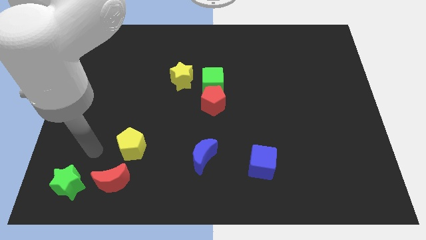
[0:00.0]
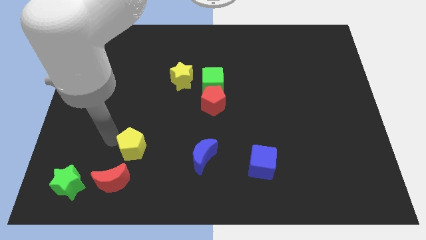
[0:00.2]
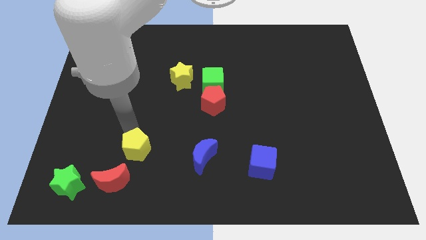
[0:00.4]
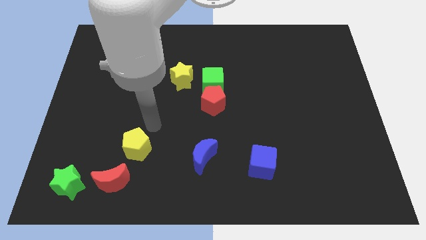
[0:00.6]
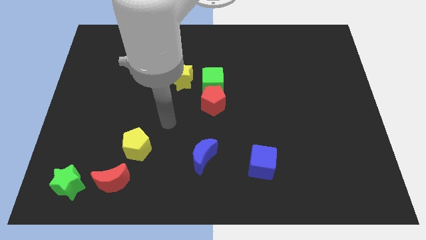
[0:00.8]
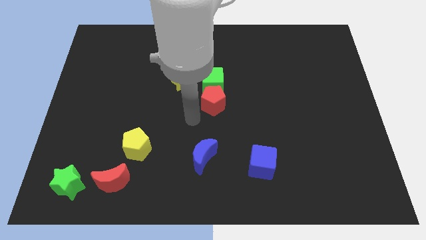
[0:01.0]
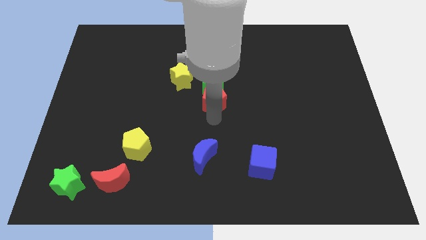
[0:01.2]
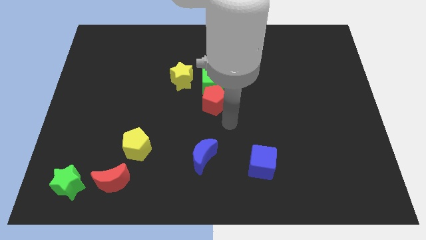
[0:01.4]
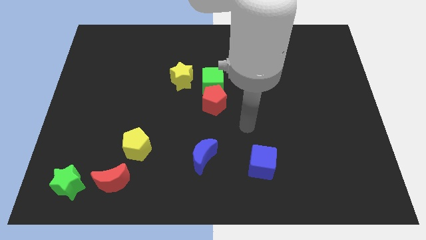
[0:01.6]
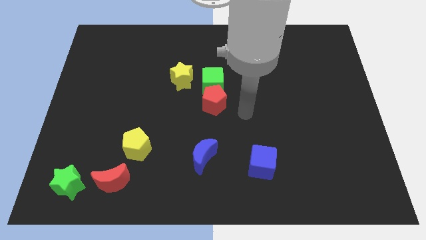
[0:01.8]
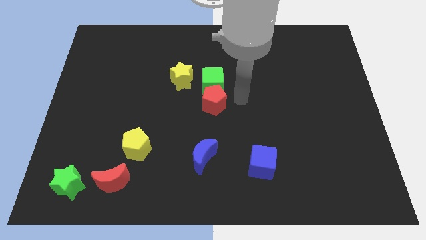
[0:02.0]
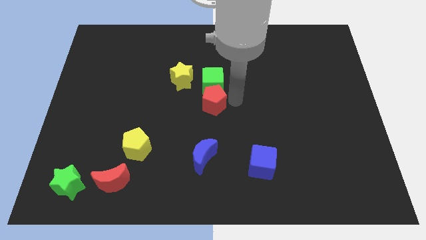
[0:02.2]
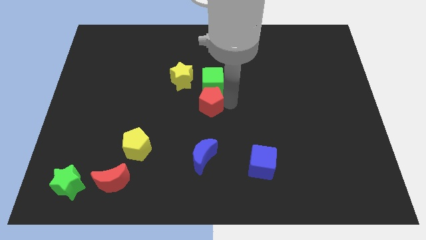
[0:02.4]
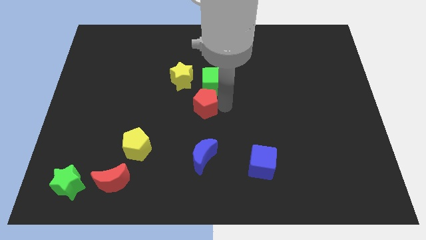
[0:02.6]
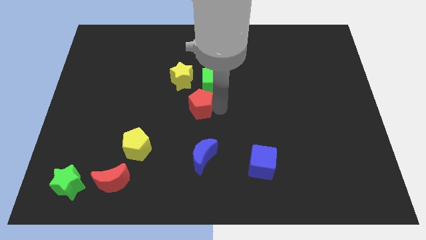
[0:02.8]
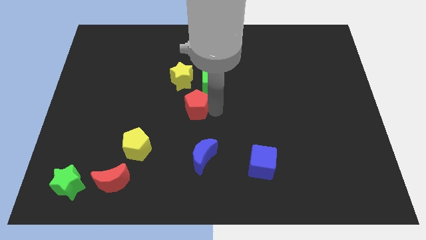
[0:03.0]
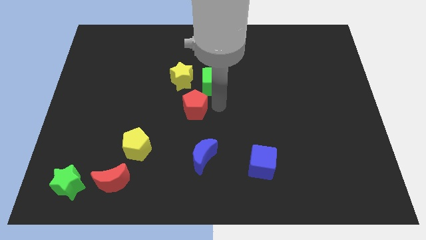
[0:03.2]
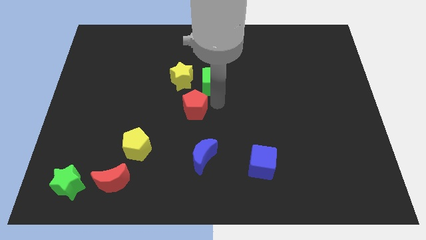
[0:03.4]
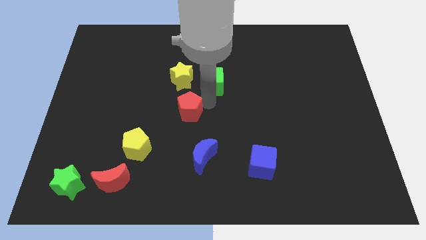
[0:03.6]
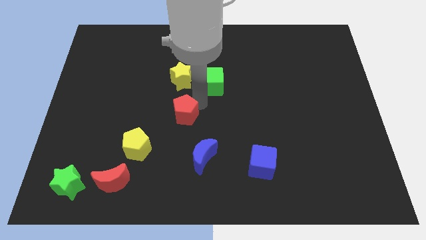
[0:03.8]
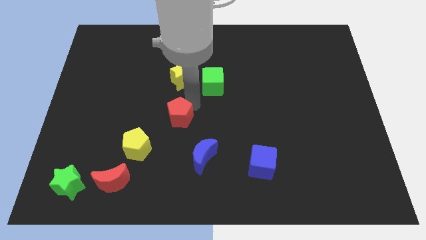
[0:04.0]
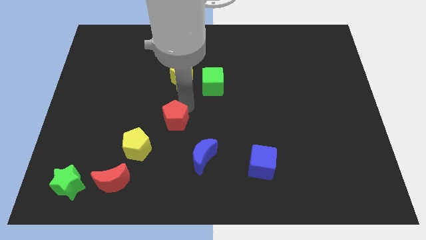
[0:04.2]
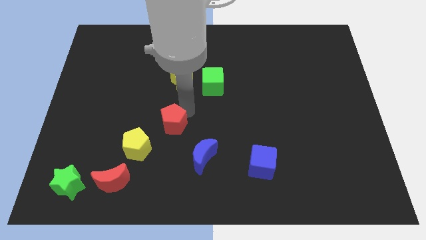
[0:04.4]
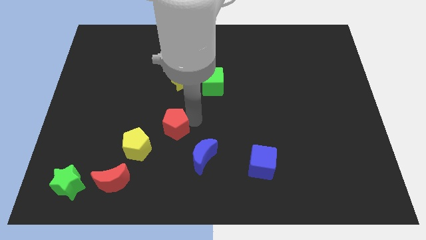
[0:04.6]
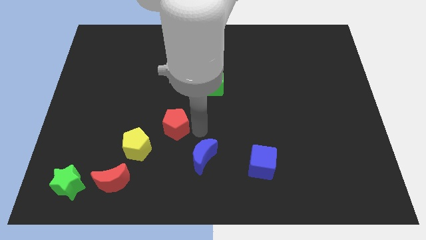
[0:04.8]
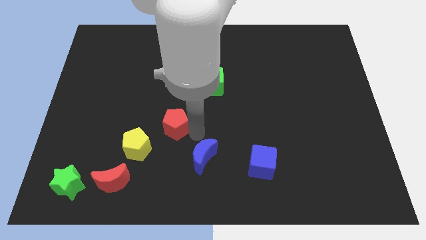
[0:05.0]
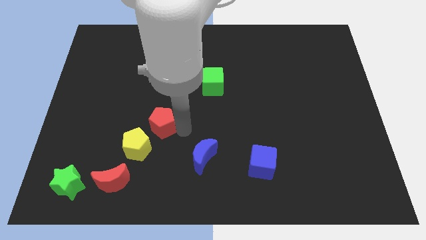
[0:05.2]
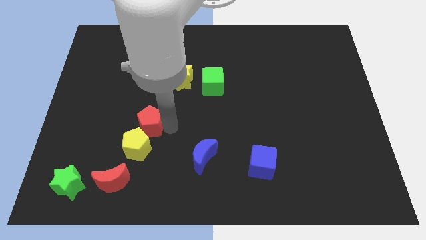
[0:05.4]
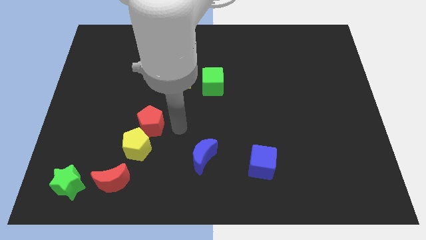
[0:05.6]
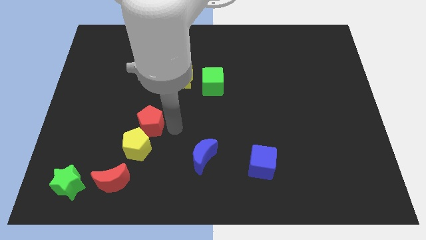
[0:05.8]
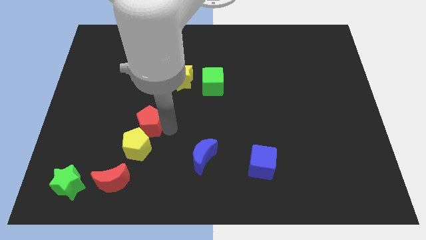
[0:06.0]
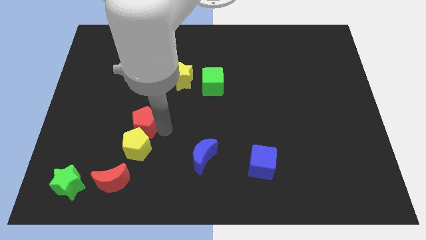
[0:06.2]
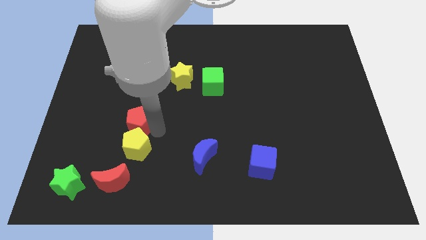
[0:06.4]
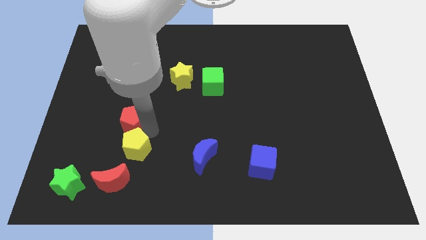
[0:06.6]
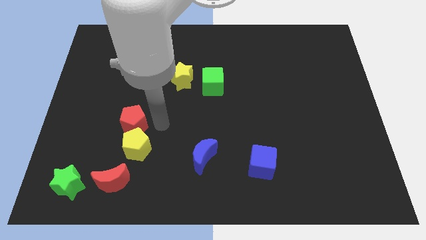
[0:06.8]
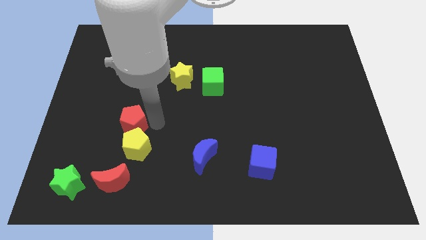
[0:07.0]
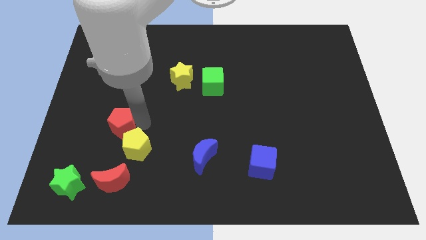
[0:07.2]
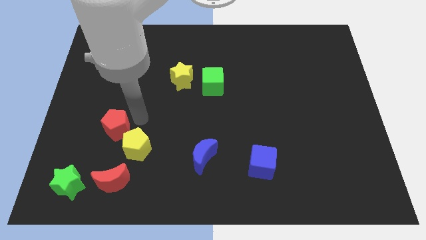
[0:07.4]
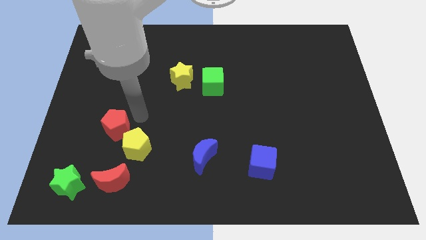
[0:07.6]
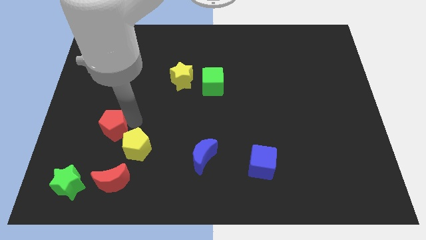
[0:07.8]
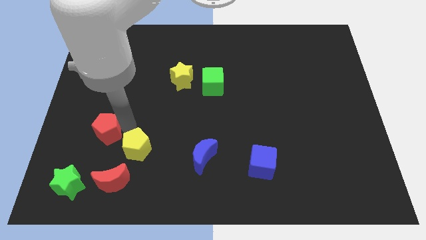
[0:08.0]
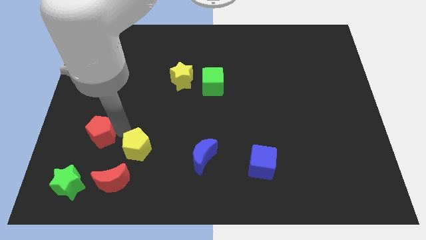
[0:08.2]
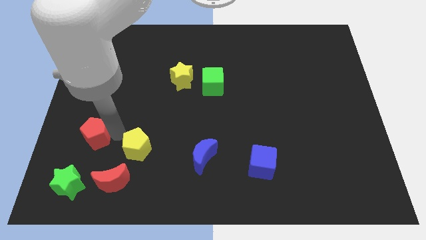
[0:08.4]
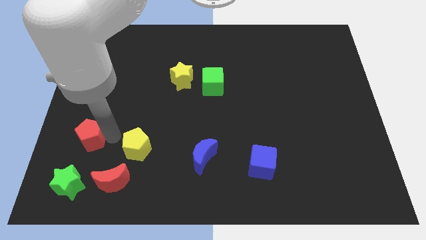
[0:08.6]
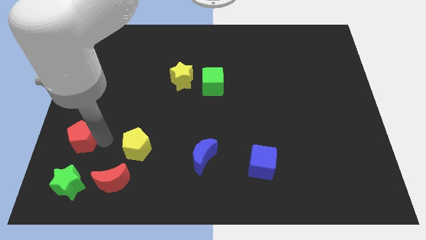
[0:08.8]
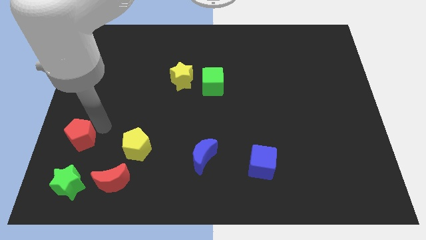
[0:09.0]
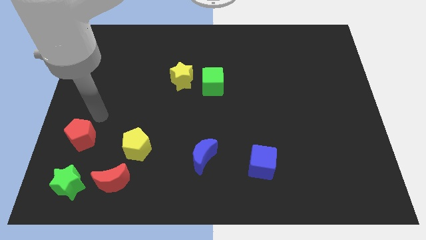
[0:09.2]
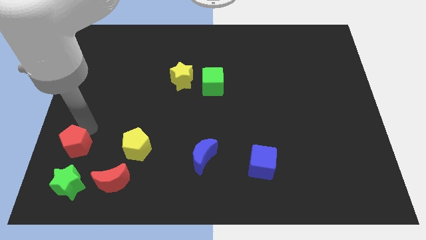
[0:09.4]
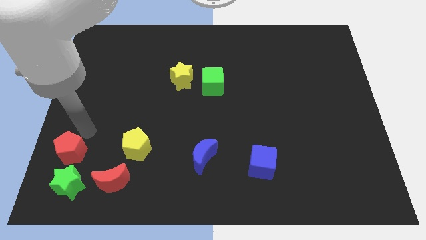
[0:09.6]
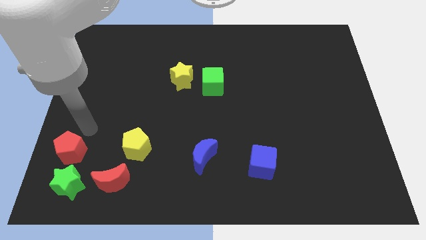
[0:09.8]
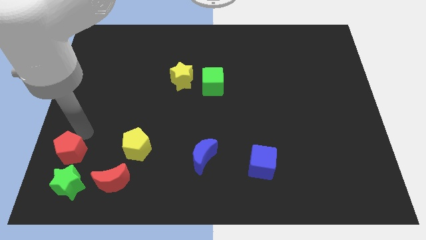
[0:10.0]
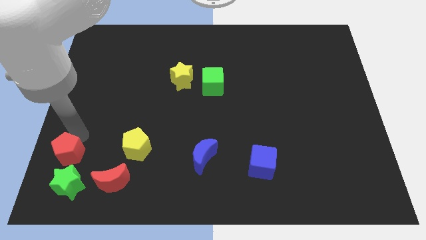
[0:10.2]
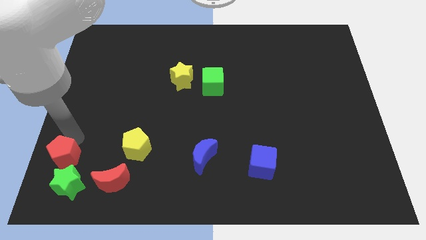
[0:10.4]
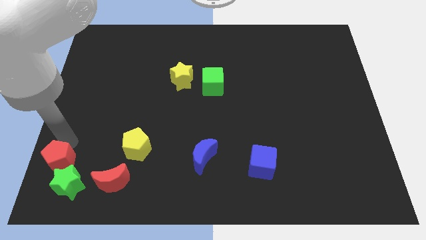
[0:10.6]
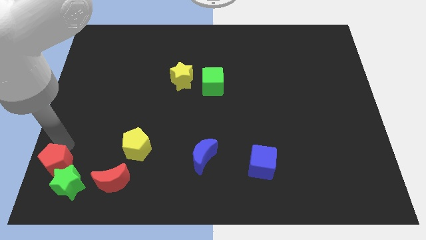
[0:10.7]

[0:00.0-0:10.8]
move the red pentagon to the bottom left of the board

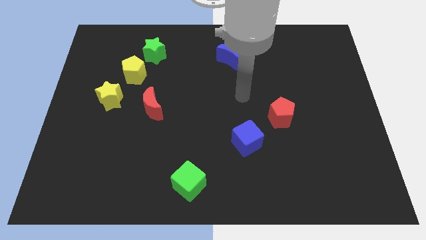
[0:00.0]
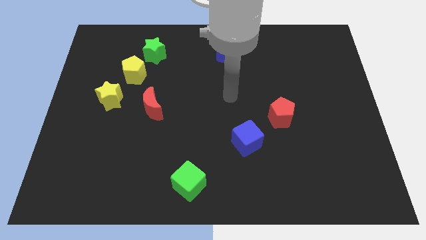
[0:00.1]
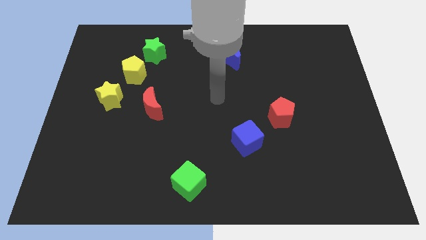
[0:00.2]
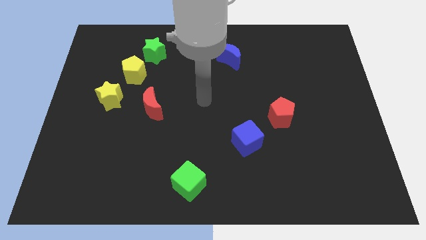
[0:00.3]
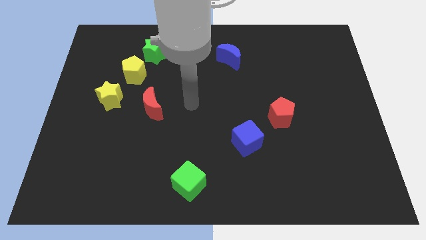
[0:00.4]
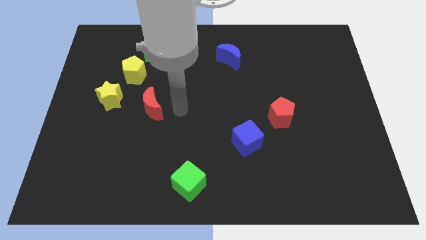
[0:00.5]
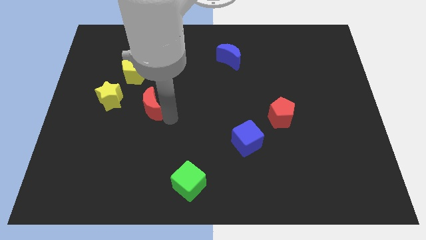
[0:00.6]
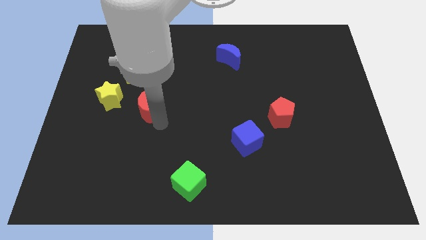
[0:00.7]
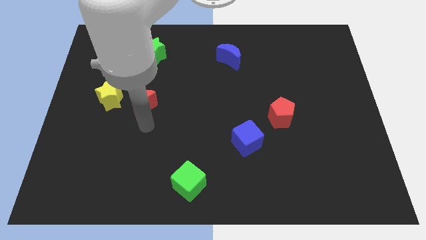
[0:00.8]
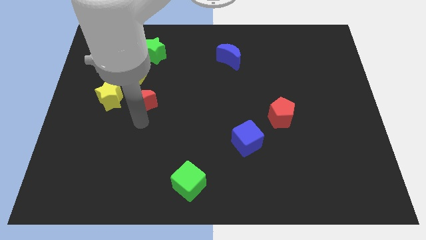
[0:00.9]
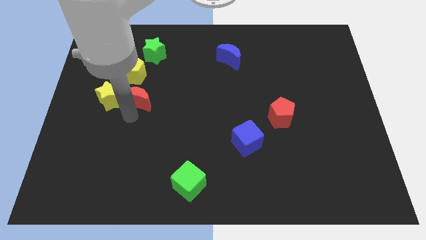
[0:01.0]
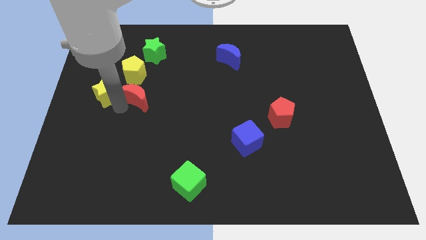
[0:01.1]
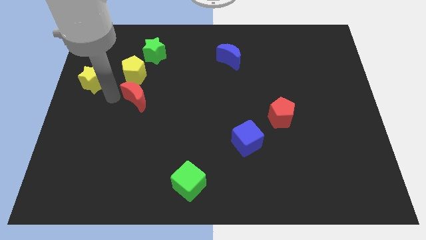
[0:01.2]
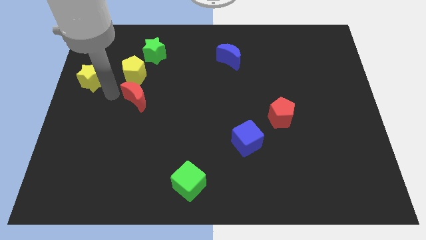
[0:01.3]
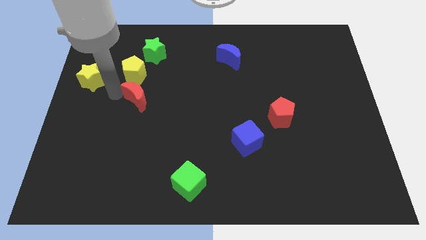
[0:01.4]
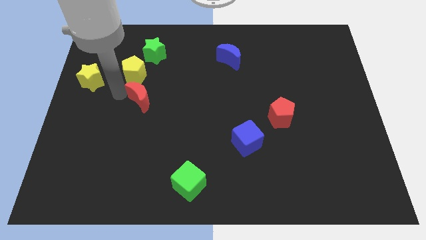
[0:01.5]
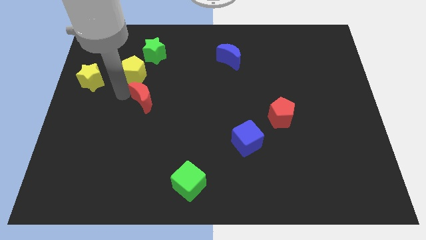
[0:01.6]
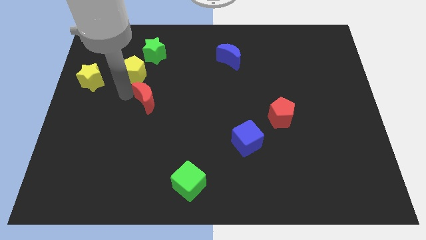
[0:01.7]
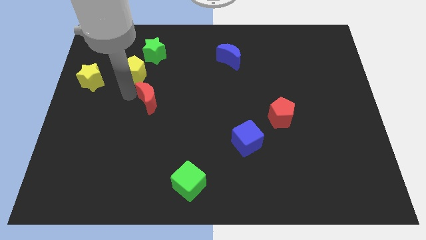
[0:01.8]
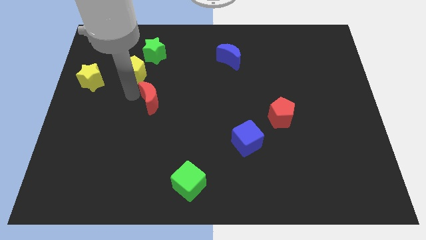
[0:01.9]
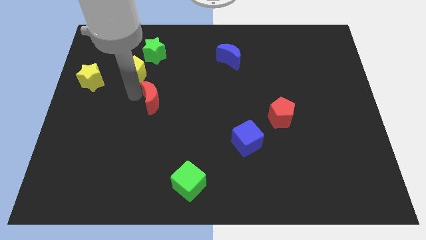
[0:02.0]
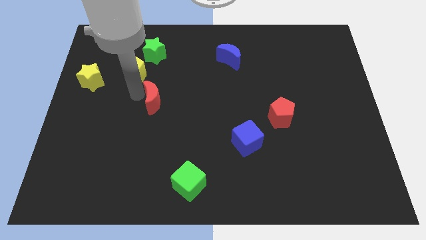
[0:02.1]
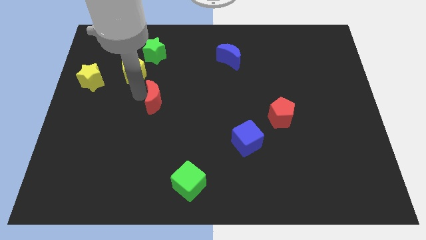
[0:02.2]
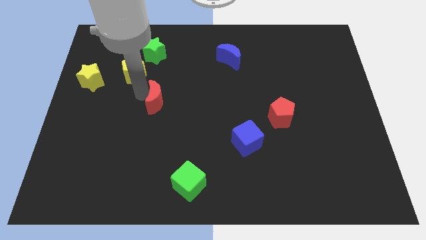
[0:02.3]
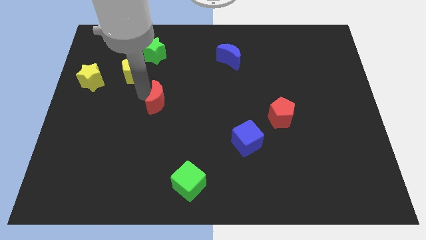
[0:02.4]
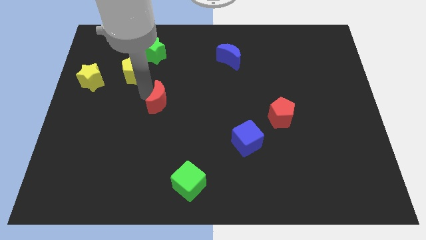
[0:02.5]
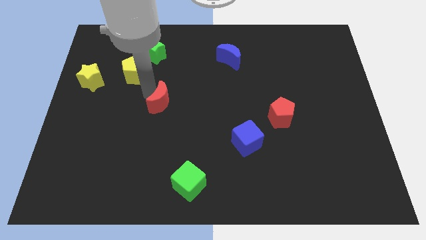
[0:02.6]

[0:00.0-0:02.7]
push the red moon to the middle of the board
